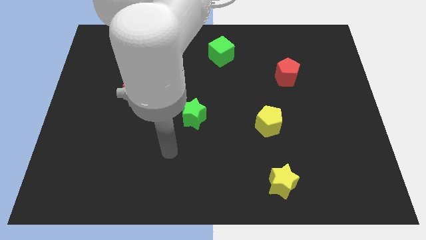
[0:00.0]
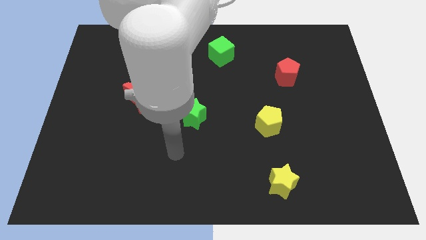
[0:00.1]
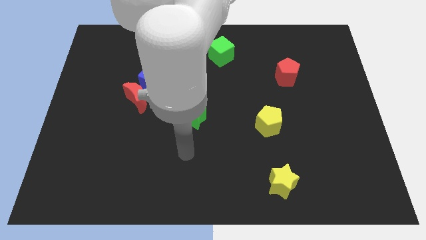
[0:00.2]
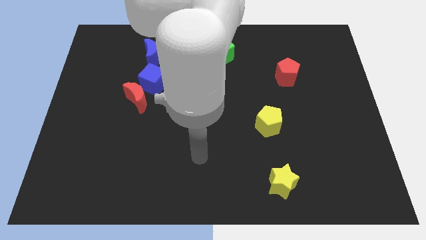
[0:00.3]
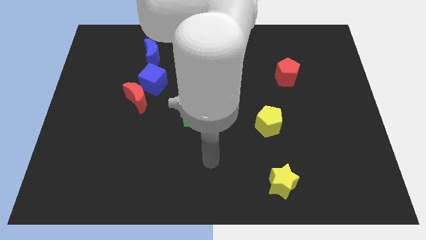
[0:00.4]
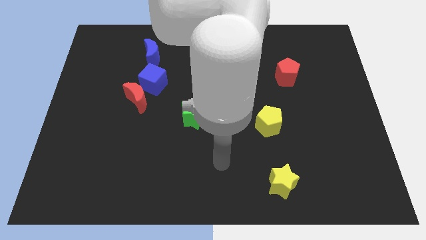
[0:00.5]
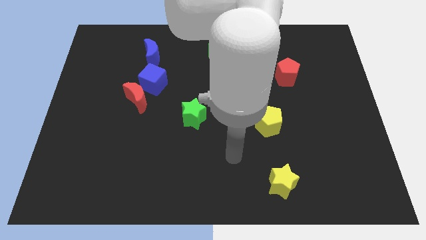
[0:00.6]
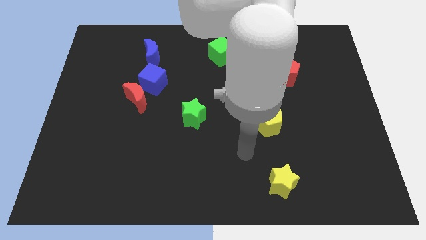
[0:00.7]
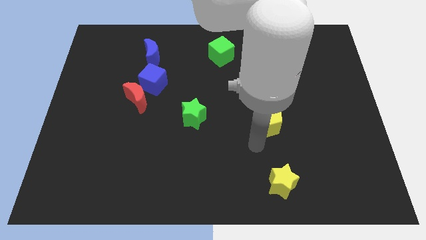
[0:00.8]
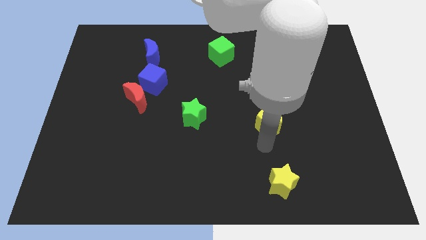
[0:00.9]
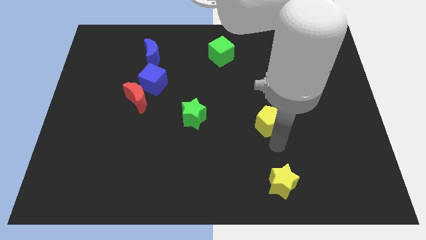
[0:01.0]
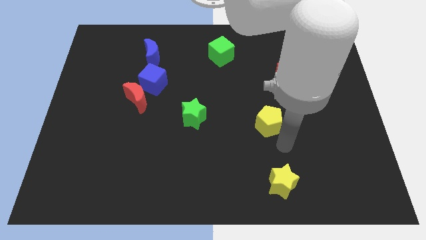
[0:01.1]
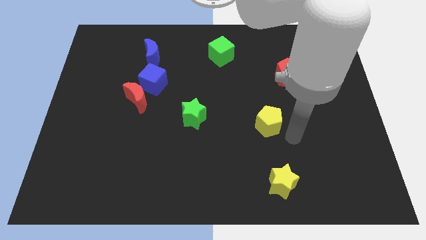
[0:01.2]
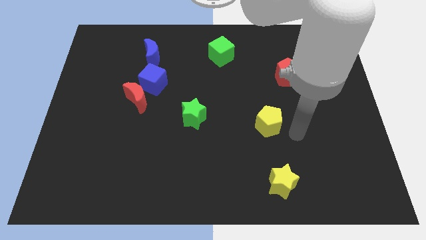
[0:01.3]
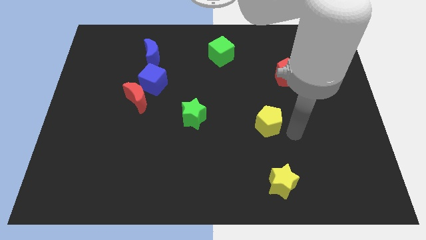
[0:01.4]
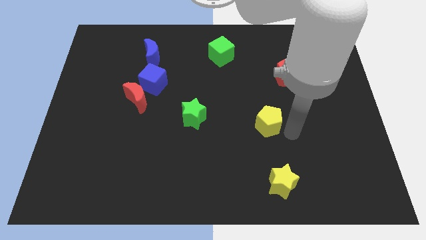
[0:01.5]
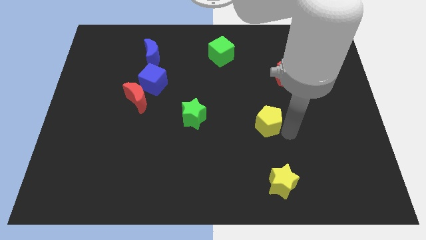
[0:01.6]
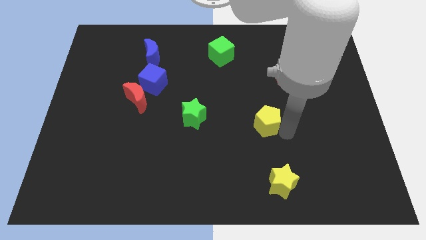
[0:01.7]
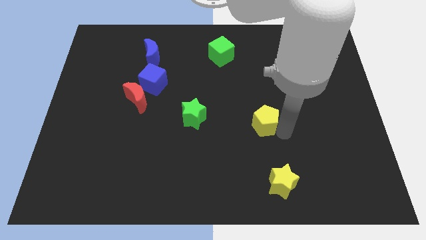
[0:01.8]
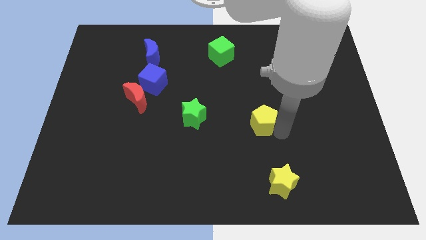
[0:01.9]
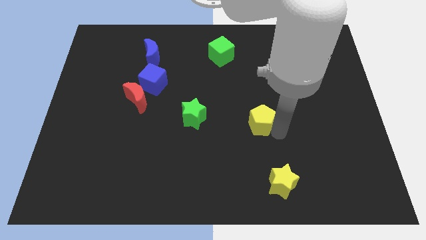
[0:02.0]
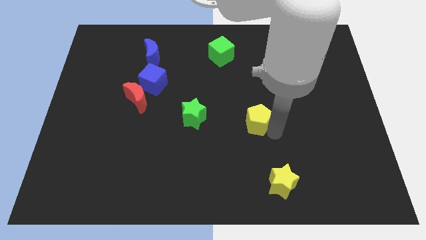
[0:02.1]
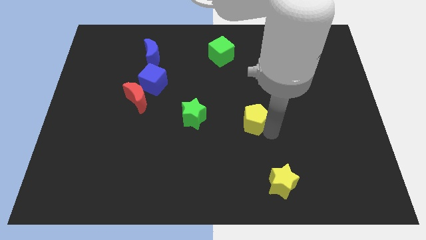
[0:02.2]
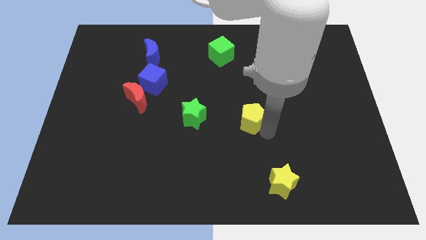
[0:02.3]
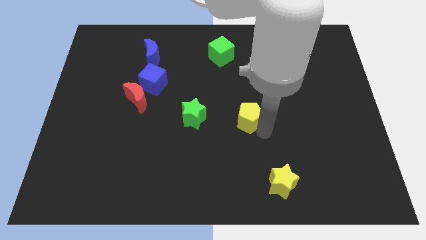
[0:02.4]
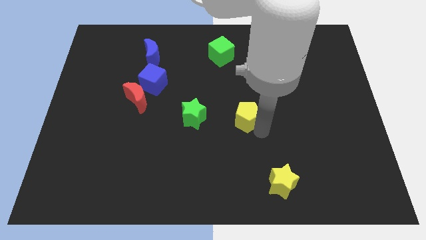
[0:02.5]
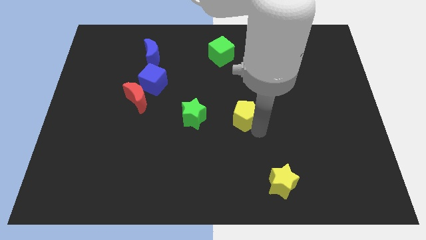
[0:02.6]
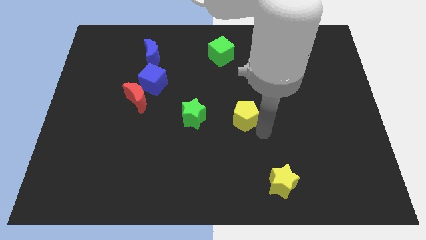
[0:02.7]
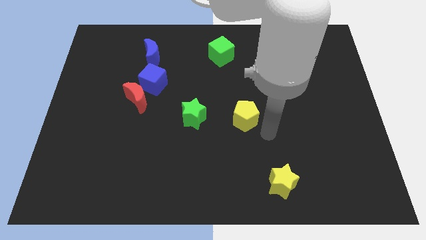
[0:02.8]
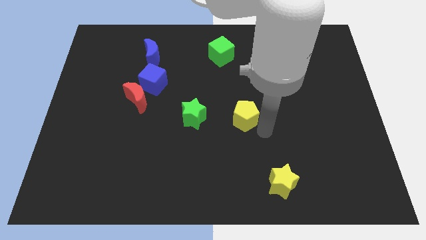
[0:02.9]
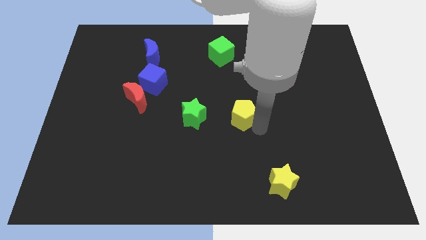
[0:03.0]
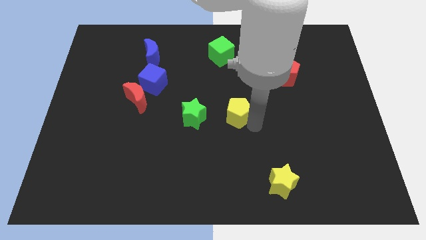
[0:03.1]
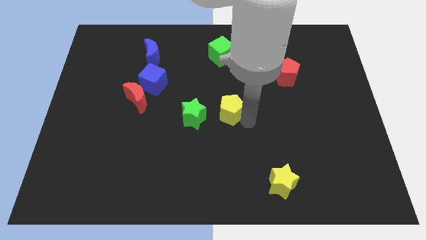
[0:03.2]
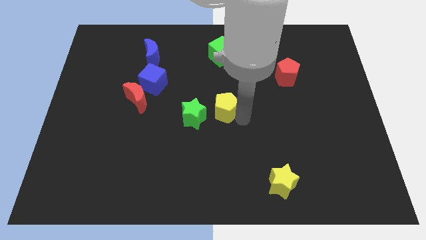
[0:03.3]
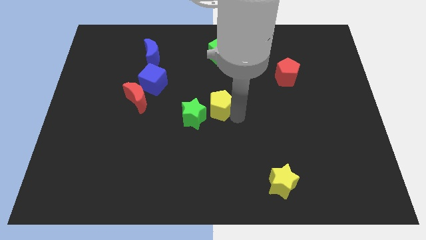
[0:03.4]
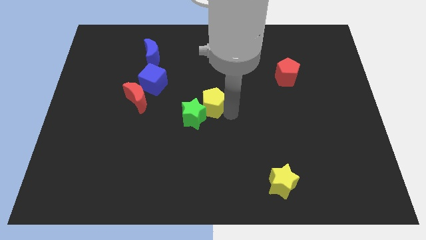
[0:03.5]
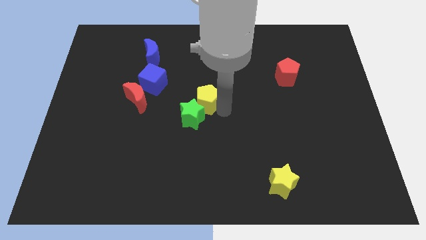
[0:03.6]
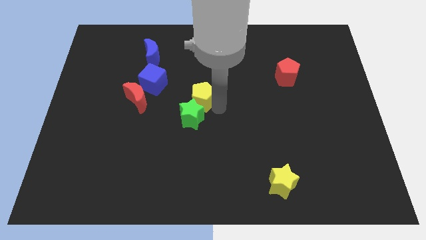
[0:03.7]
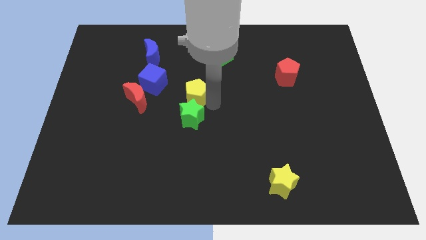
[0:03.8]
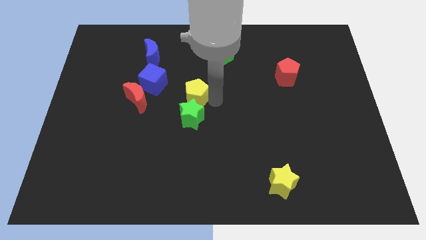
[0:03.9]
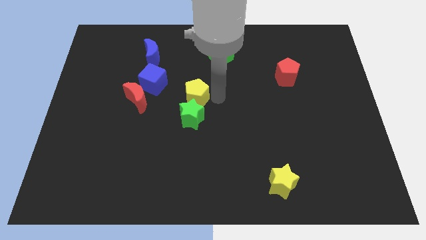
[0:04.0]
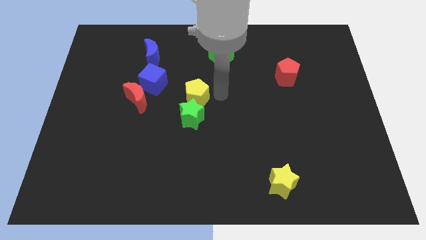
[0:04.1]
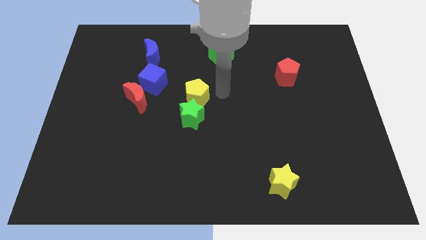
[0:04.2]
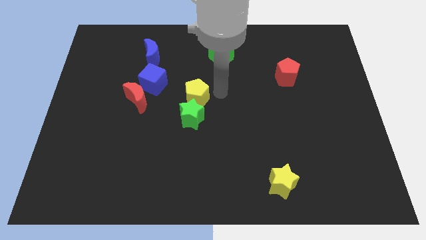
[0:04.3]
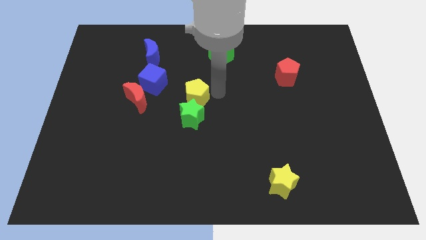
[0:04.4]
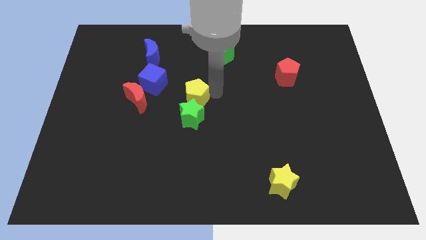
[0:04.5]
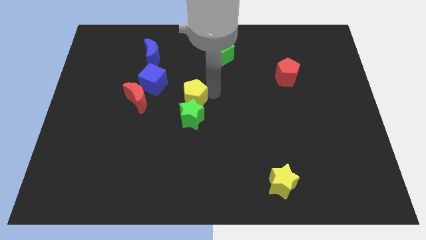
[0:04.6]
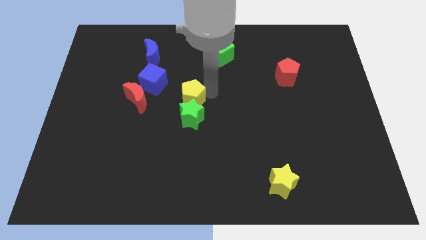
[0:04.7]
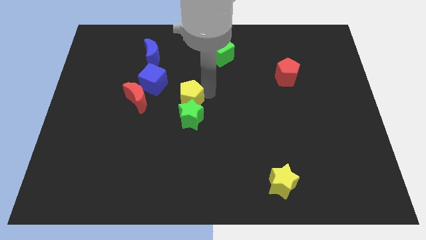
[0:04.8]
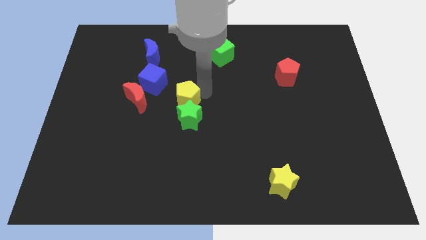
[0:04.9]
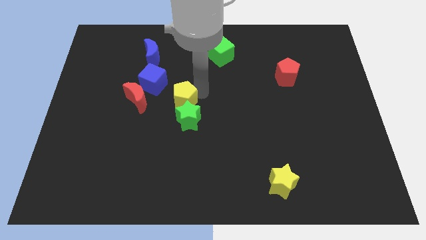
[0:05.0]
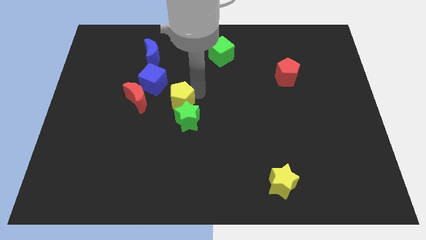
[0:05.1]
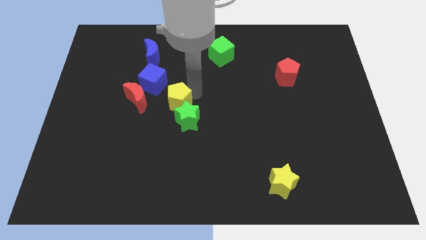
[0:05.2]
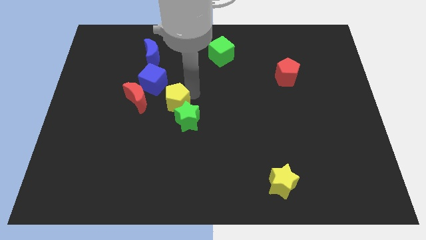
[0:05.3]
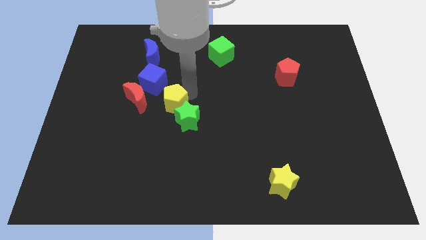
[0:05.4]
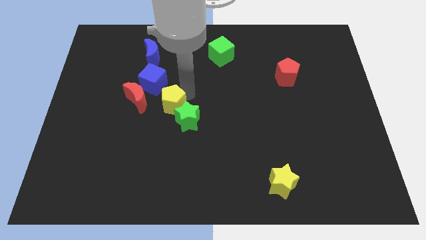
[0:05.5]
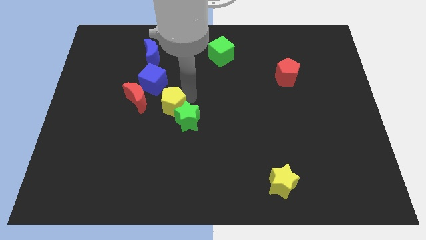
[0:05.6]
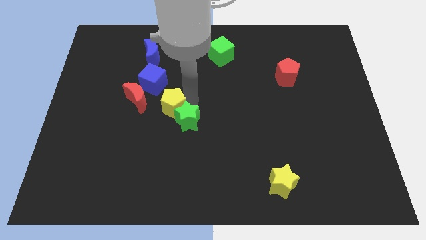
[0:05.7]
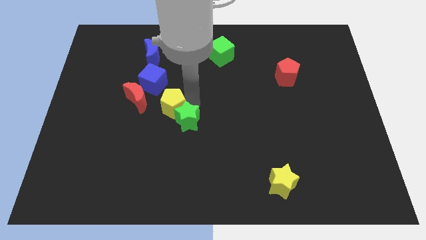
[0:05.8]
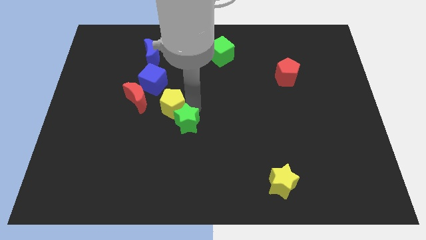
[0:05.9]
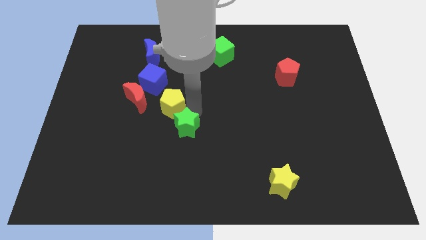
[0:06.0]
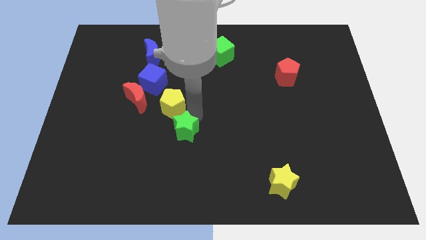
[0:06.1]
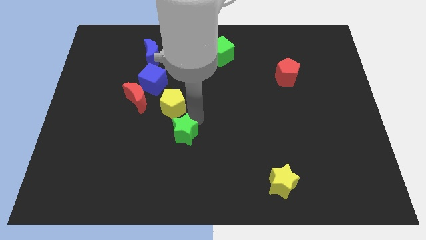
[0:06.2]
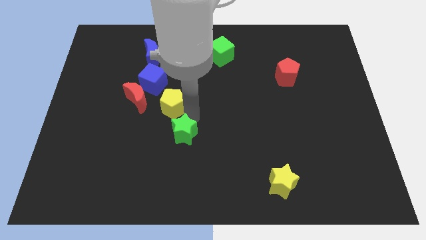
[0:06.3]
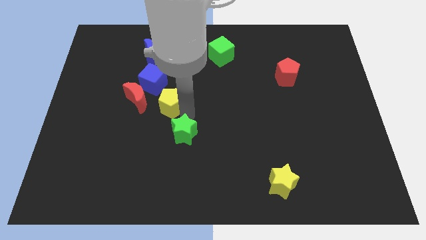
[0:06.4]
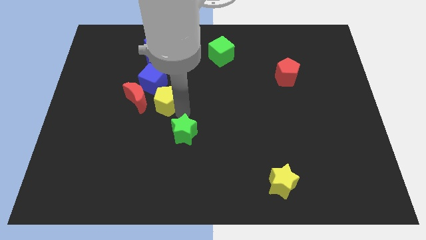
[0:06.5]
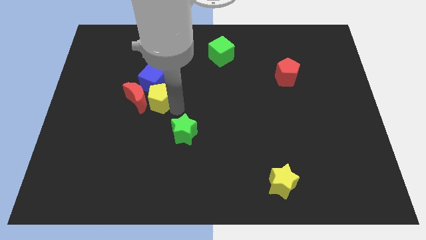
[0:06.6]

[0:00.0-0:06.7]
put the yellow pentagon next to the red moon

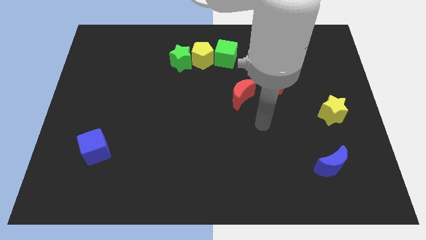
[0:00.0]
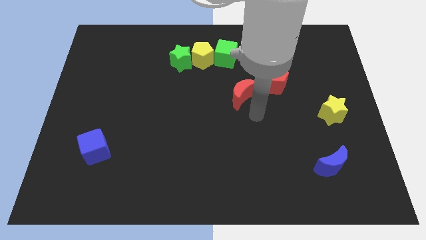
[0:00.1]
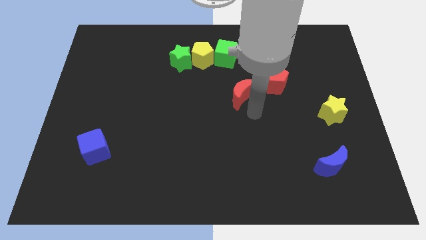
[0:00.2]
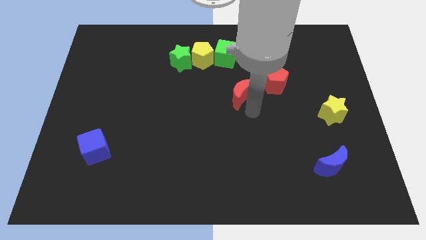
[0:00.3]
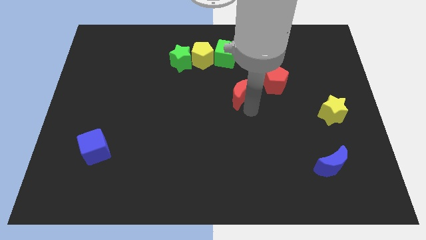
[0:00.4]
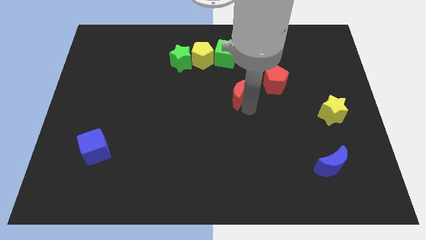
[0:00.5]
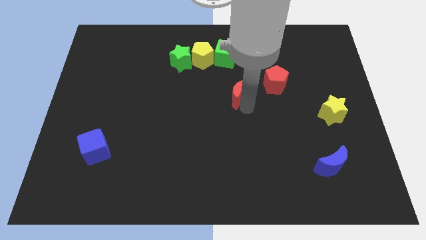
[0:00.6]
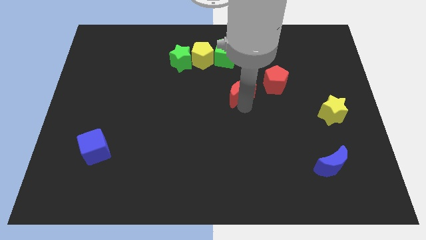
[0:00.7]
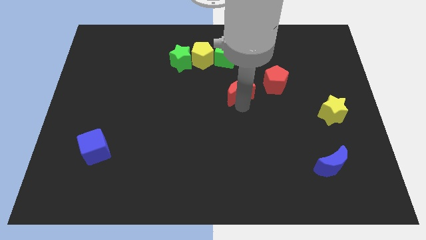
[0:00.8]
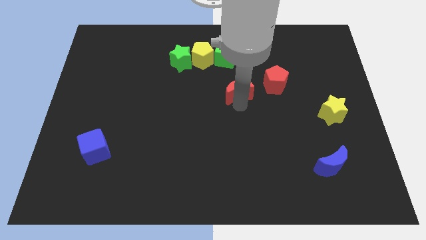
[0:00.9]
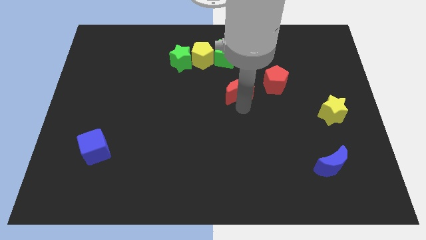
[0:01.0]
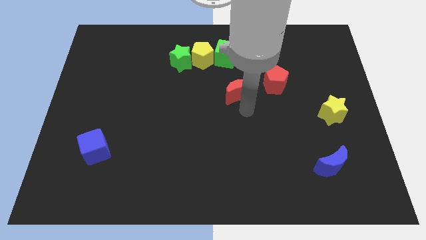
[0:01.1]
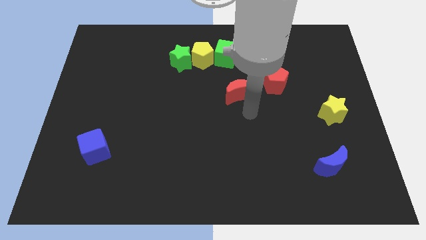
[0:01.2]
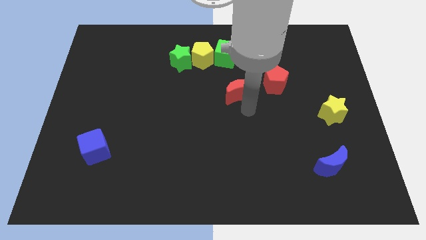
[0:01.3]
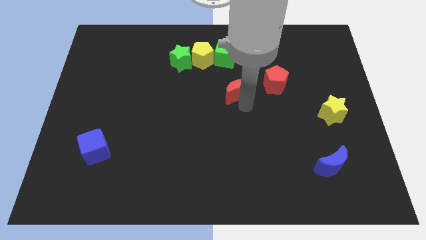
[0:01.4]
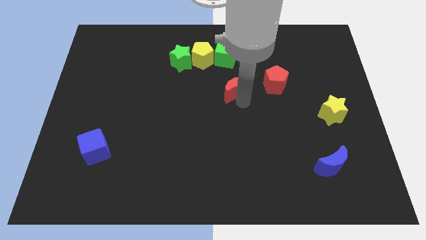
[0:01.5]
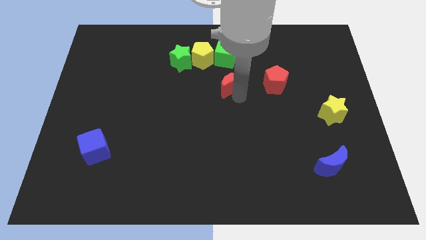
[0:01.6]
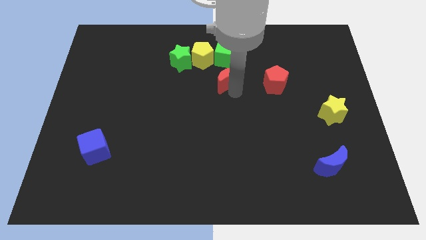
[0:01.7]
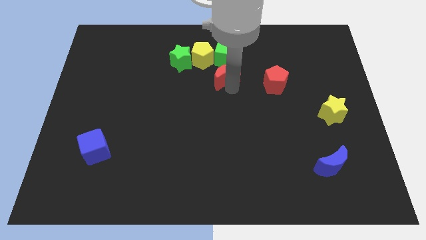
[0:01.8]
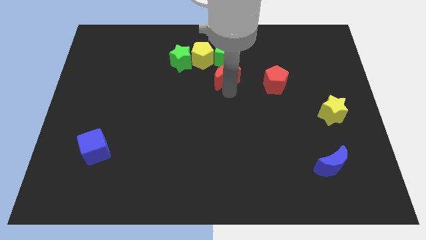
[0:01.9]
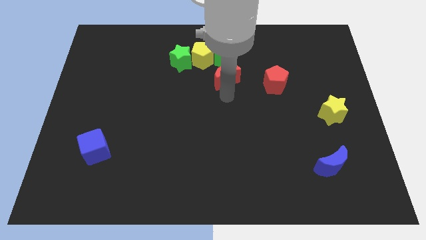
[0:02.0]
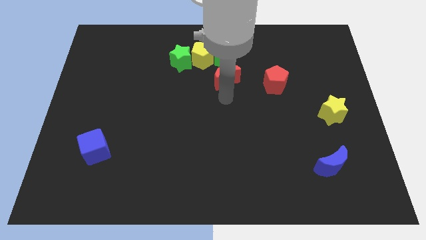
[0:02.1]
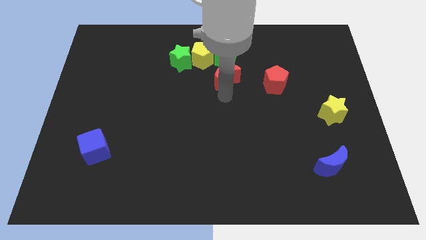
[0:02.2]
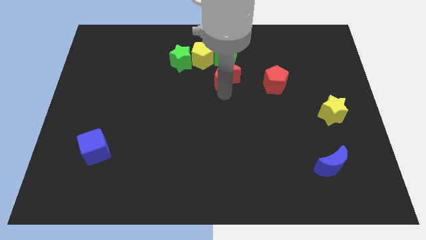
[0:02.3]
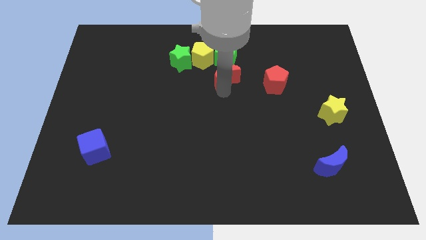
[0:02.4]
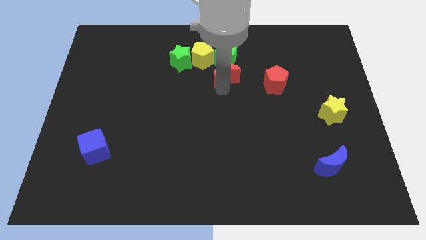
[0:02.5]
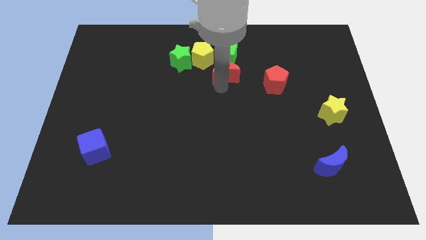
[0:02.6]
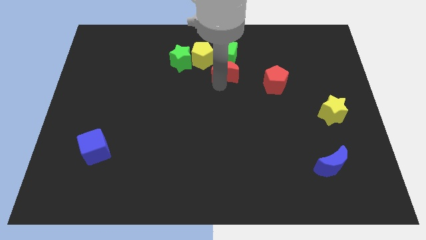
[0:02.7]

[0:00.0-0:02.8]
push the red moon towards the green cube
